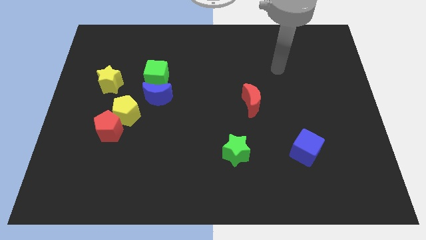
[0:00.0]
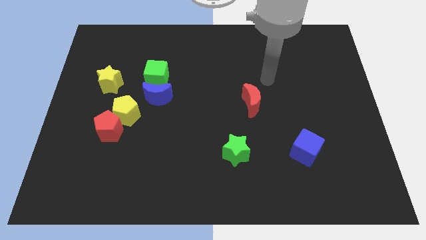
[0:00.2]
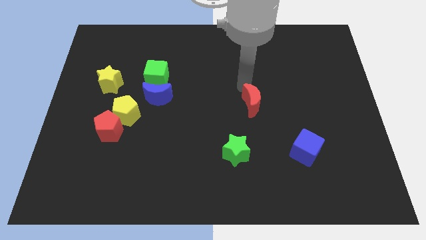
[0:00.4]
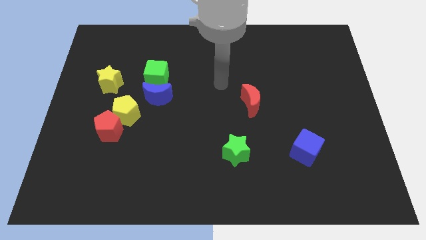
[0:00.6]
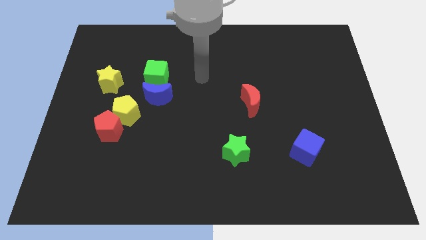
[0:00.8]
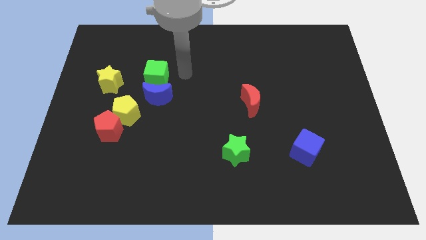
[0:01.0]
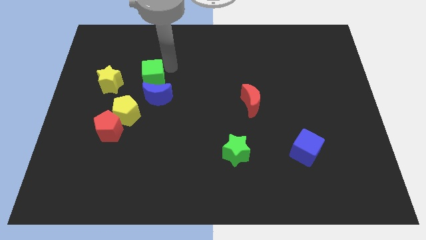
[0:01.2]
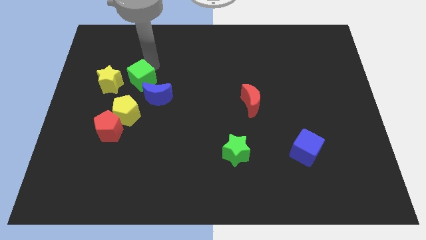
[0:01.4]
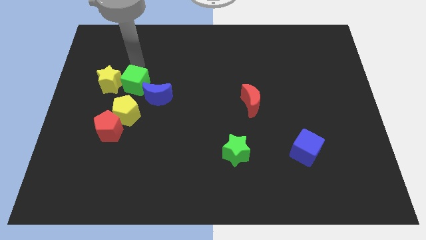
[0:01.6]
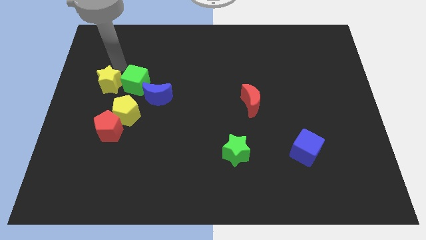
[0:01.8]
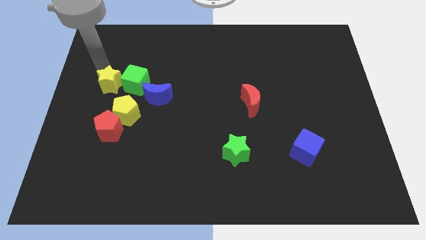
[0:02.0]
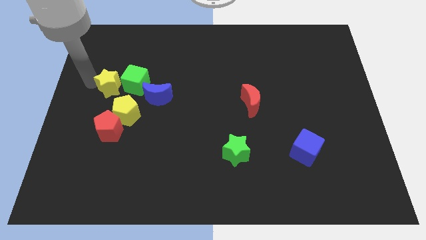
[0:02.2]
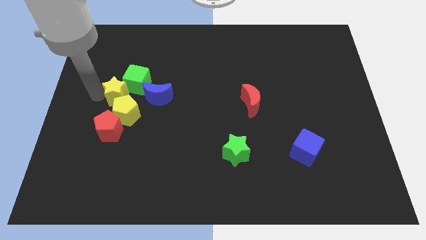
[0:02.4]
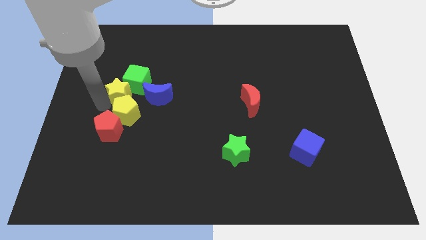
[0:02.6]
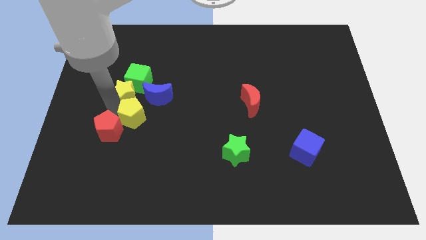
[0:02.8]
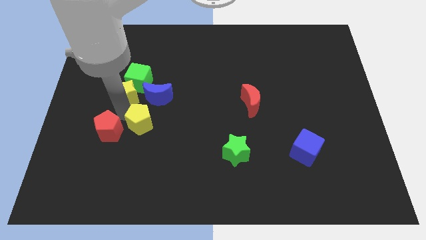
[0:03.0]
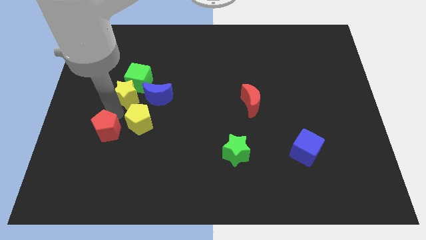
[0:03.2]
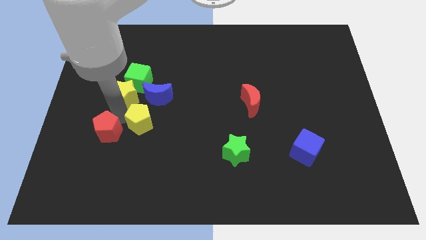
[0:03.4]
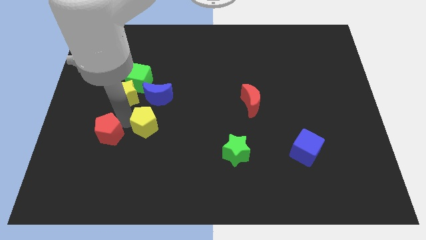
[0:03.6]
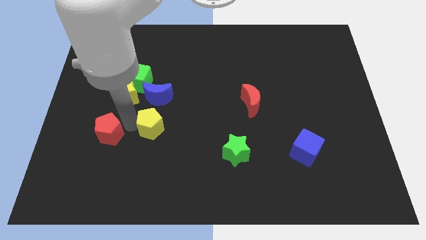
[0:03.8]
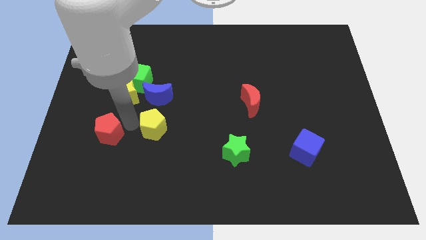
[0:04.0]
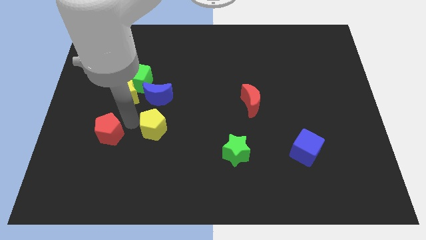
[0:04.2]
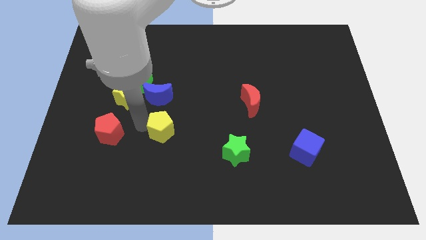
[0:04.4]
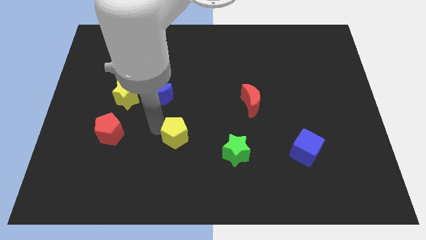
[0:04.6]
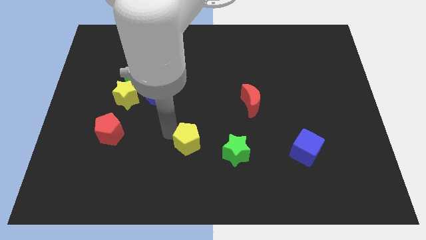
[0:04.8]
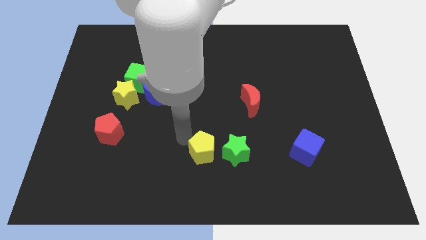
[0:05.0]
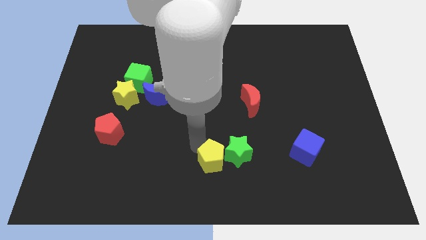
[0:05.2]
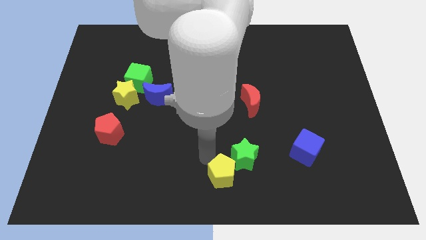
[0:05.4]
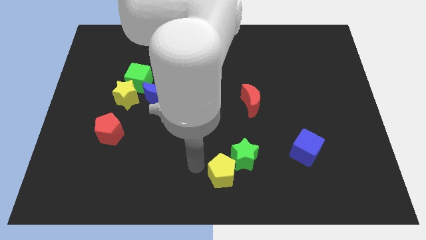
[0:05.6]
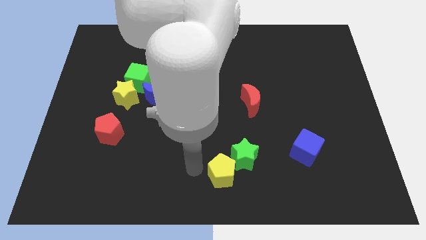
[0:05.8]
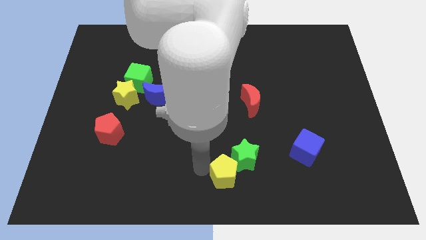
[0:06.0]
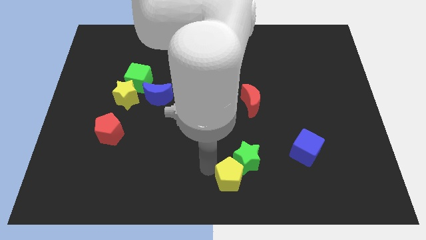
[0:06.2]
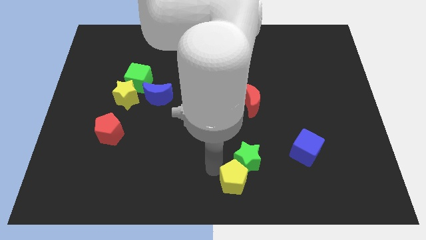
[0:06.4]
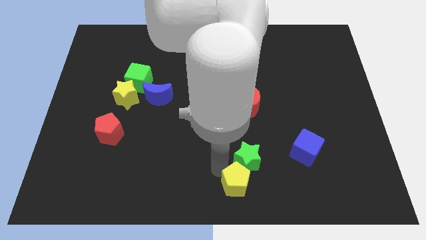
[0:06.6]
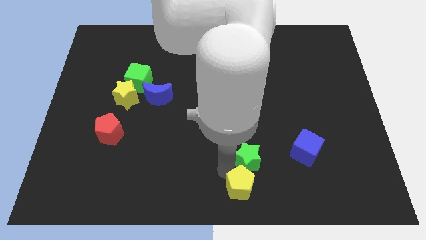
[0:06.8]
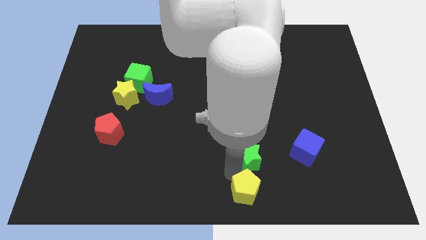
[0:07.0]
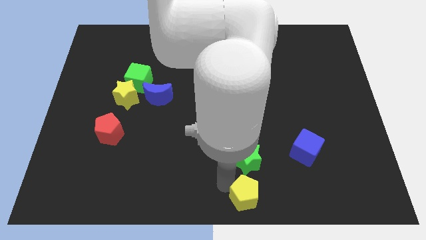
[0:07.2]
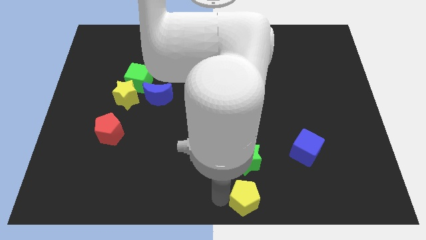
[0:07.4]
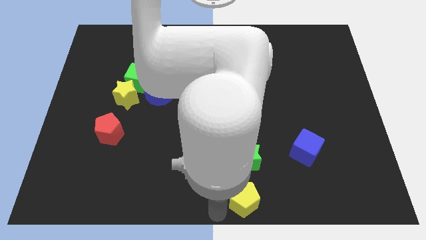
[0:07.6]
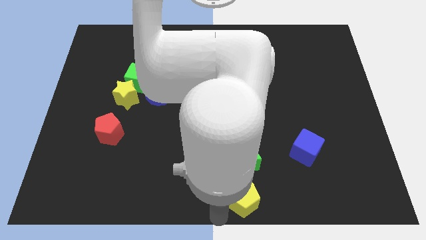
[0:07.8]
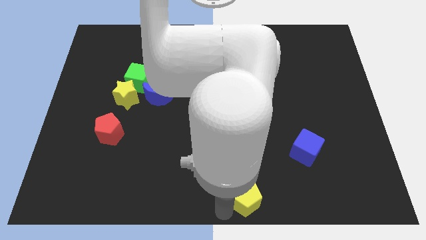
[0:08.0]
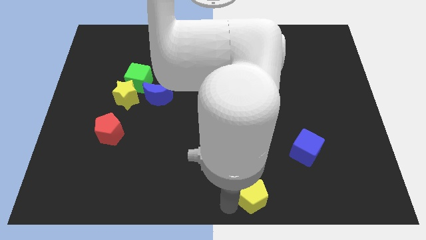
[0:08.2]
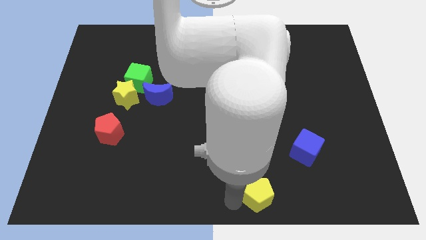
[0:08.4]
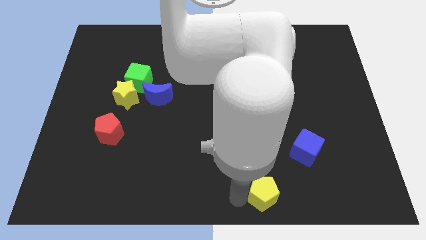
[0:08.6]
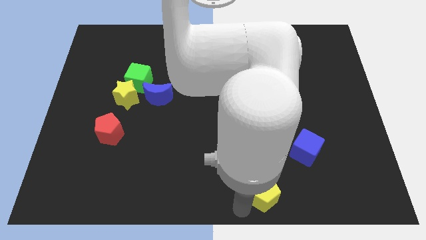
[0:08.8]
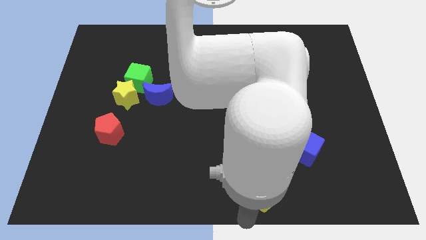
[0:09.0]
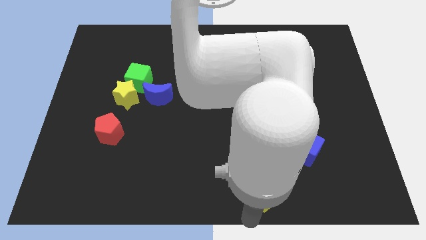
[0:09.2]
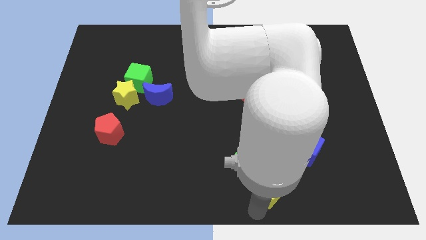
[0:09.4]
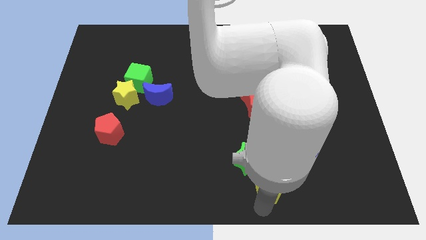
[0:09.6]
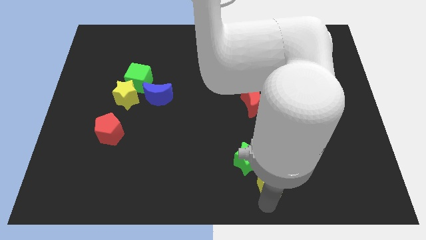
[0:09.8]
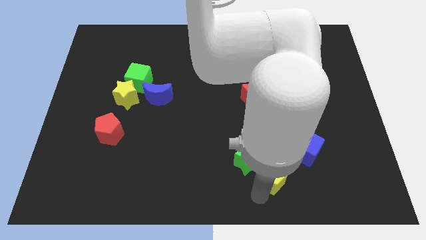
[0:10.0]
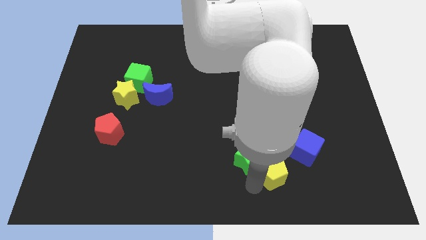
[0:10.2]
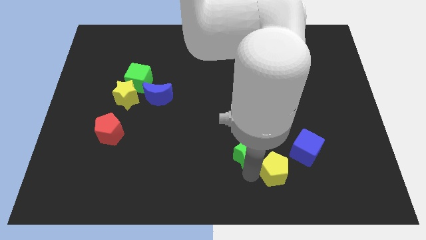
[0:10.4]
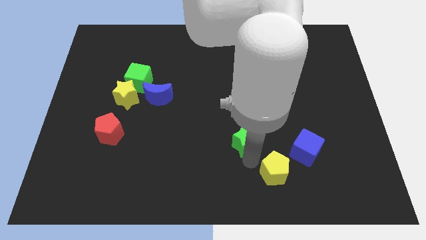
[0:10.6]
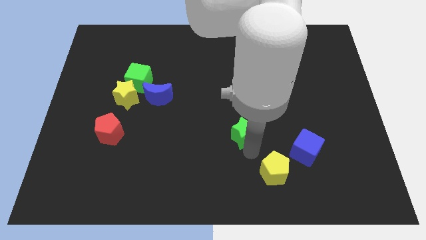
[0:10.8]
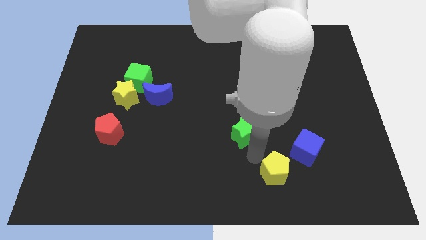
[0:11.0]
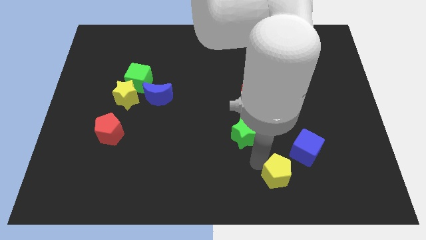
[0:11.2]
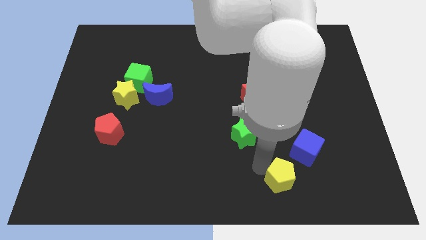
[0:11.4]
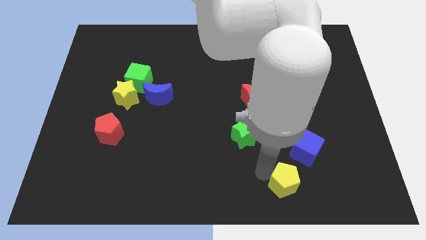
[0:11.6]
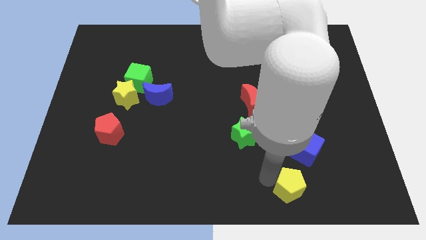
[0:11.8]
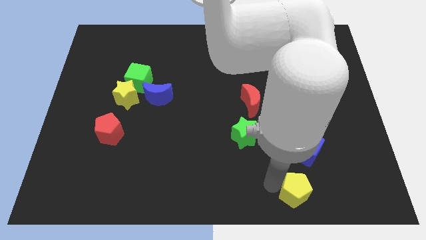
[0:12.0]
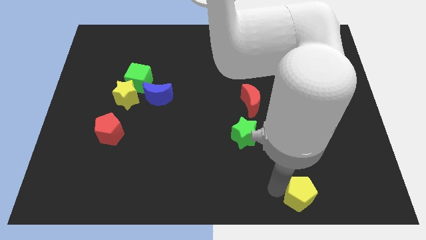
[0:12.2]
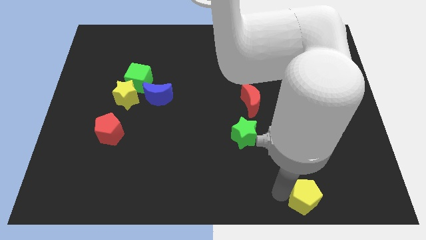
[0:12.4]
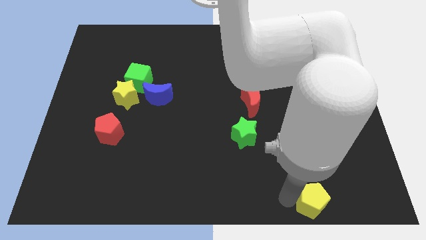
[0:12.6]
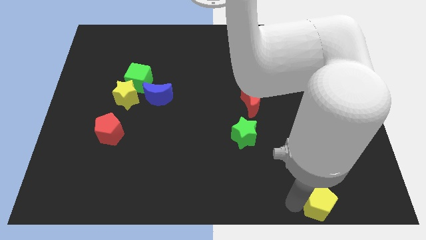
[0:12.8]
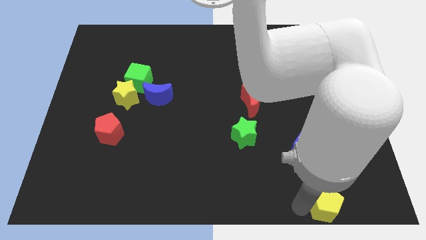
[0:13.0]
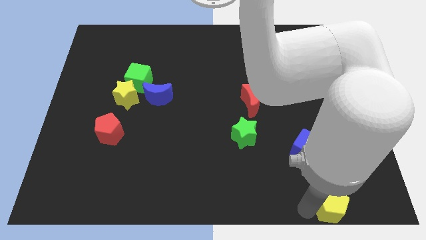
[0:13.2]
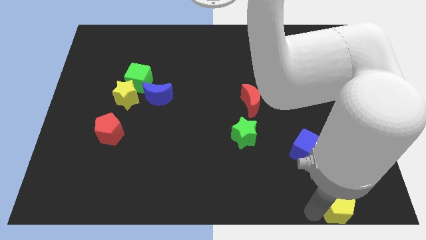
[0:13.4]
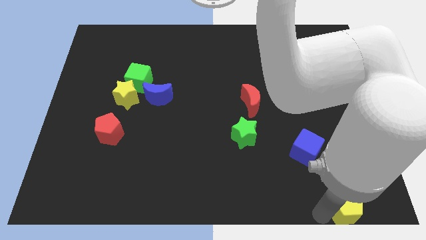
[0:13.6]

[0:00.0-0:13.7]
move the yellow pentagon to the bottom right corner

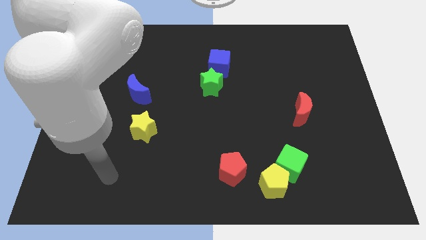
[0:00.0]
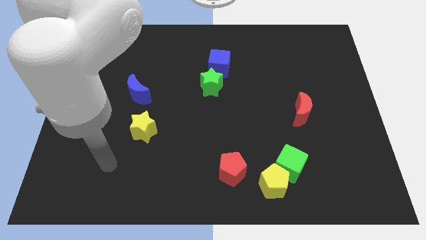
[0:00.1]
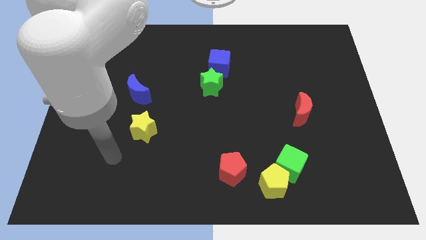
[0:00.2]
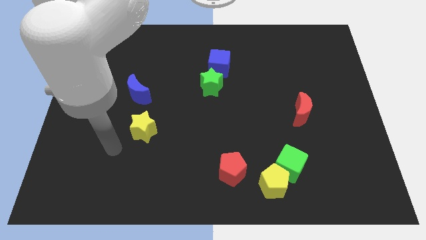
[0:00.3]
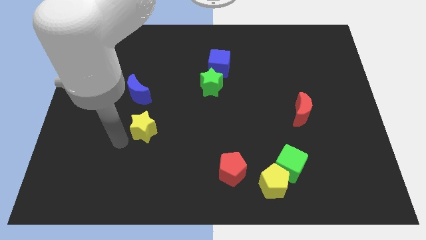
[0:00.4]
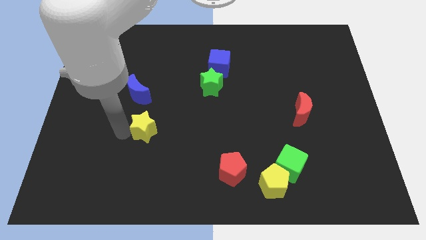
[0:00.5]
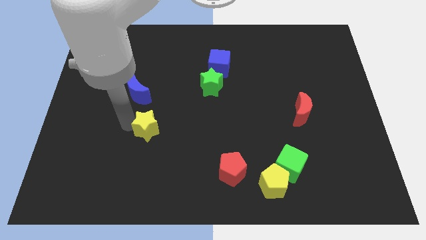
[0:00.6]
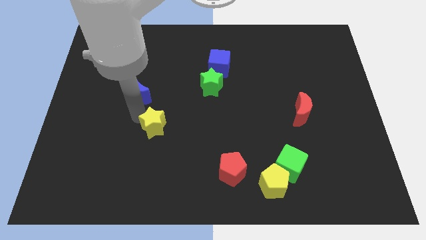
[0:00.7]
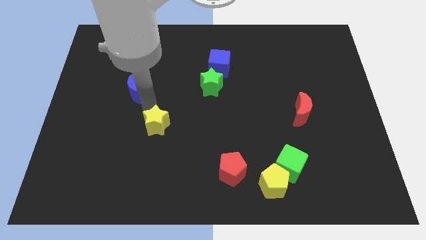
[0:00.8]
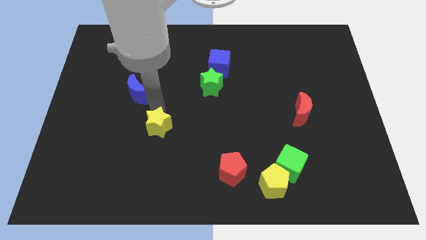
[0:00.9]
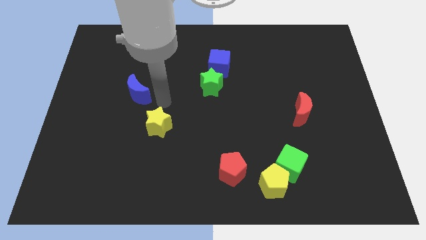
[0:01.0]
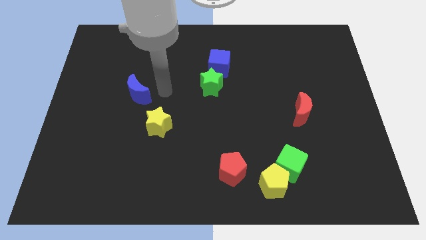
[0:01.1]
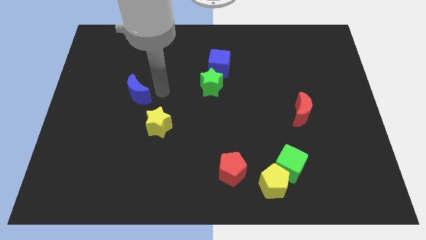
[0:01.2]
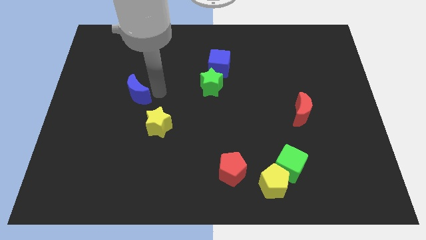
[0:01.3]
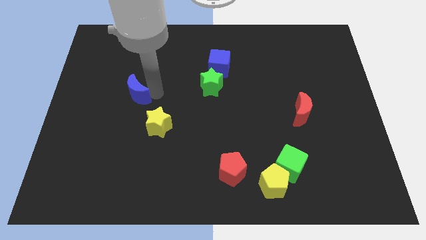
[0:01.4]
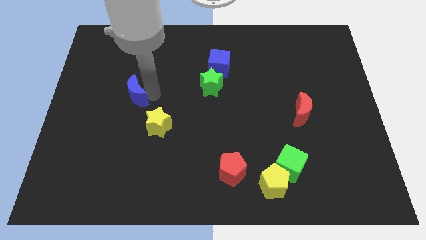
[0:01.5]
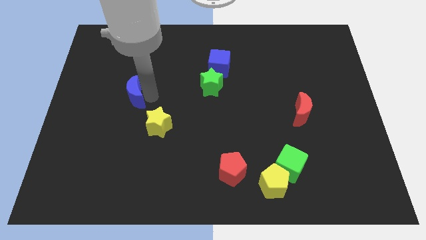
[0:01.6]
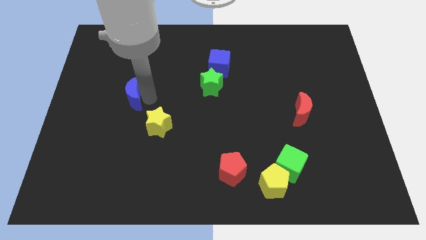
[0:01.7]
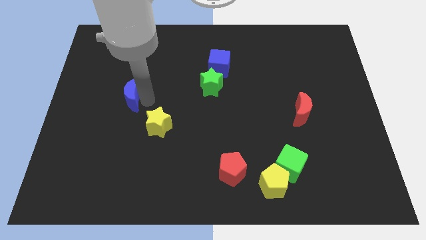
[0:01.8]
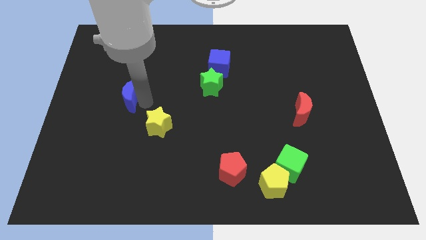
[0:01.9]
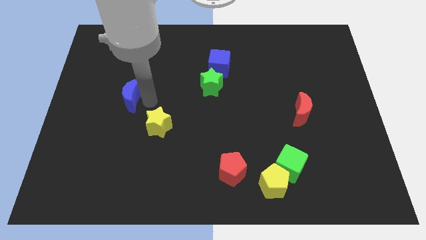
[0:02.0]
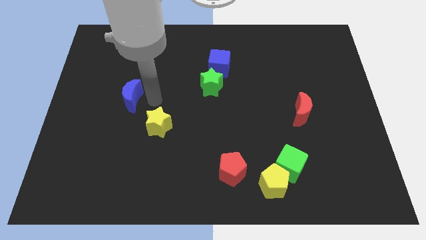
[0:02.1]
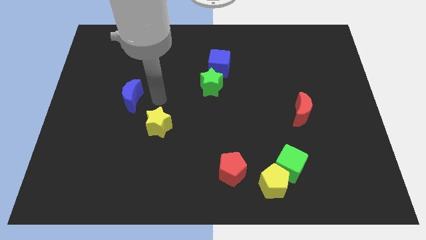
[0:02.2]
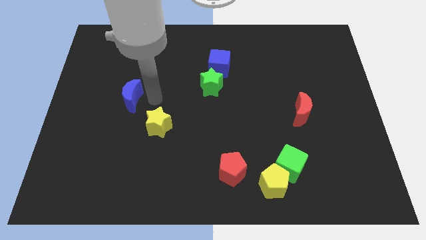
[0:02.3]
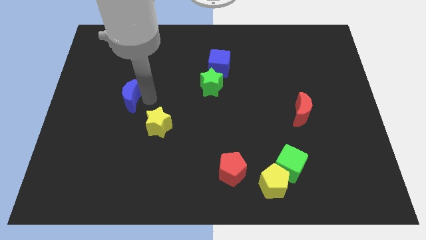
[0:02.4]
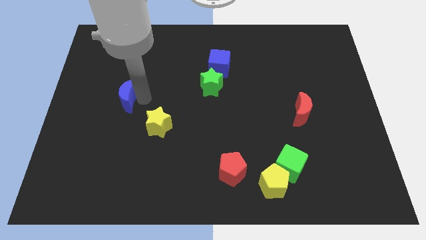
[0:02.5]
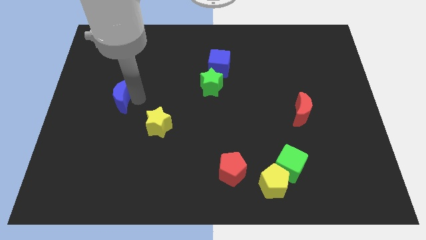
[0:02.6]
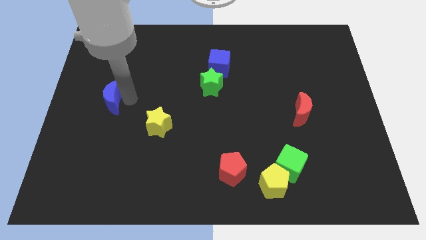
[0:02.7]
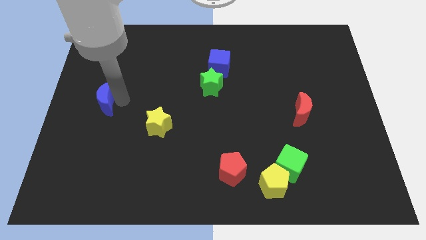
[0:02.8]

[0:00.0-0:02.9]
slide the blue moon to the left side of the board
